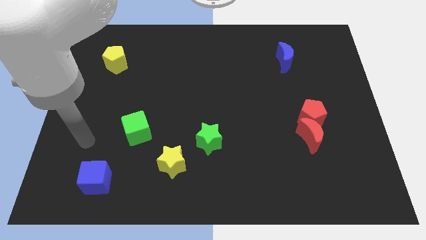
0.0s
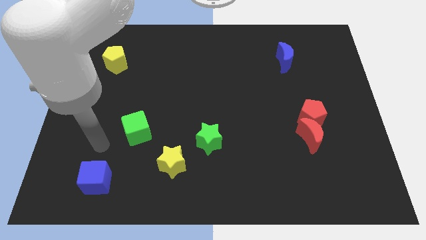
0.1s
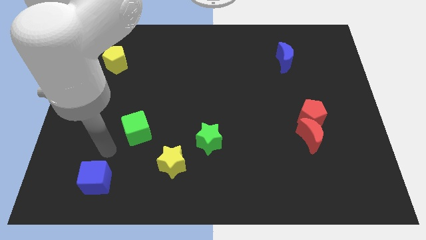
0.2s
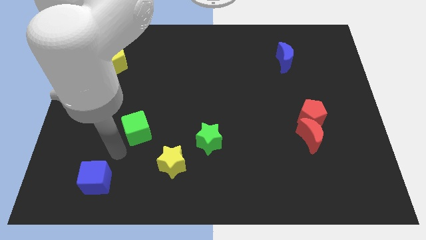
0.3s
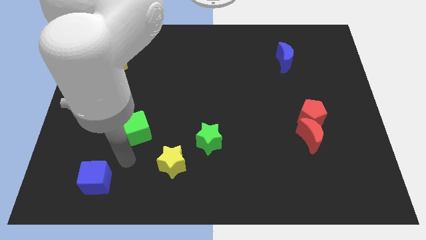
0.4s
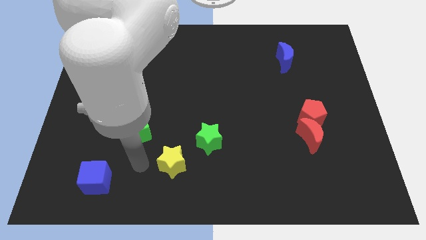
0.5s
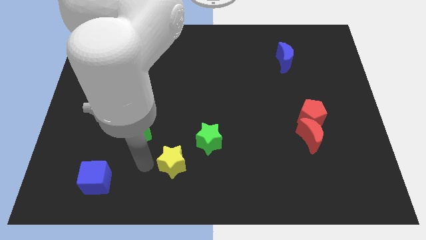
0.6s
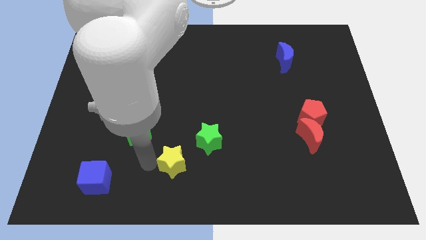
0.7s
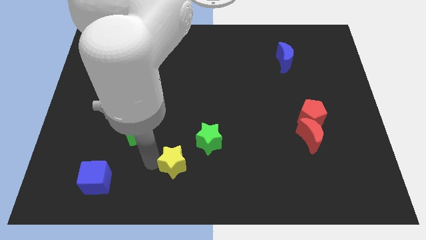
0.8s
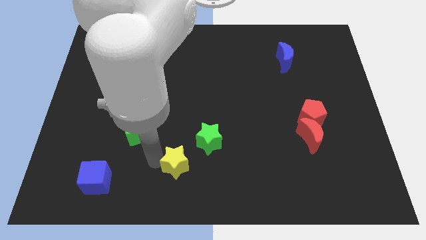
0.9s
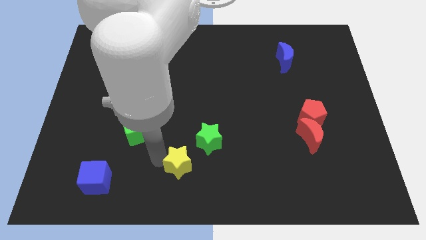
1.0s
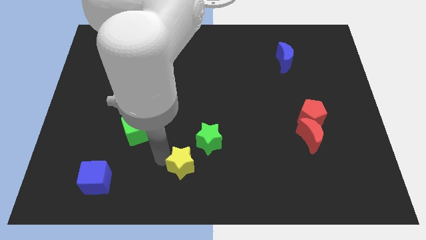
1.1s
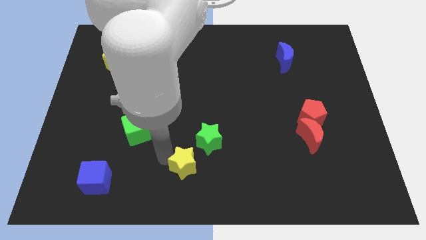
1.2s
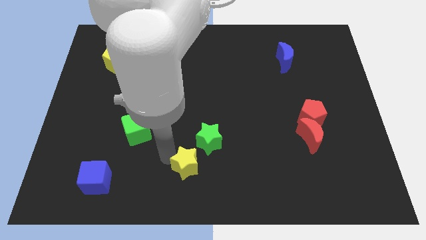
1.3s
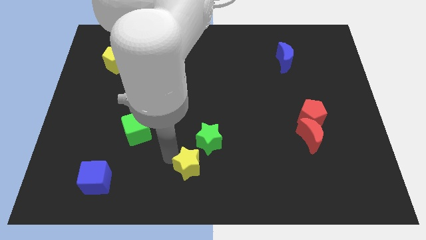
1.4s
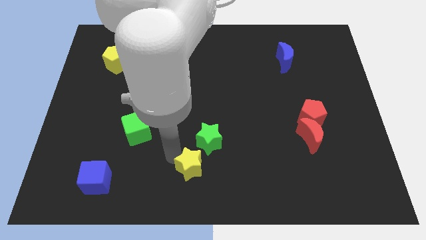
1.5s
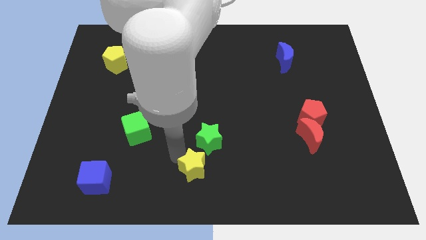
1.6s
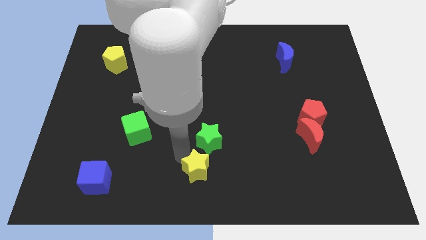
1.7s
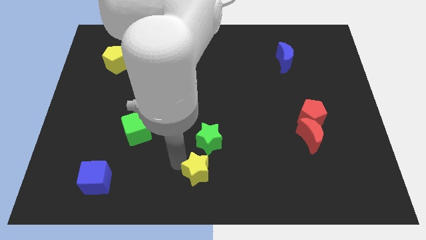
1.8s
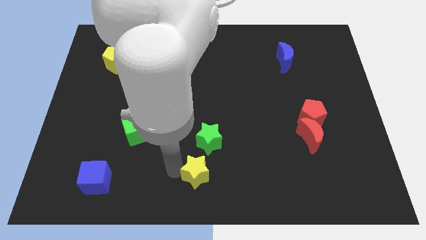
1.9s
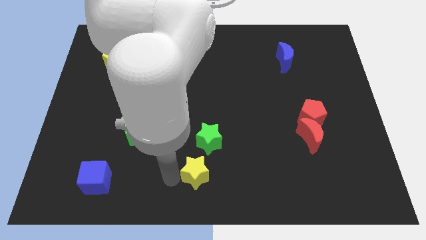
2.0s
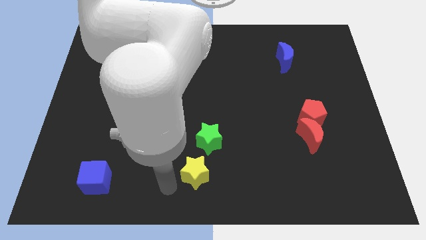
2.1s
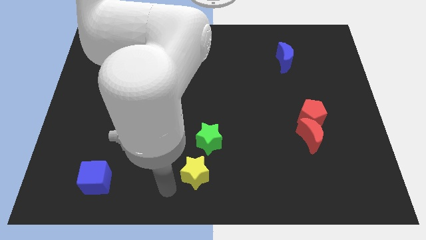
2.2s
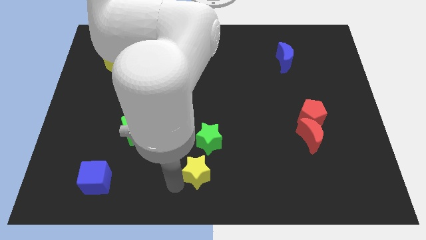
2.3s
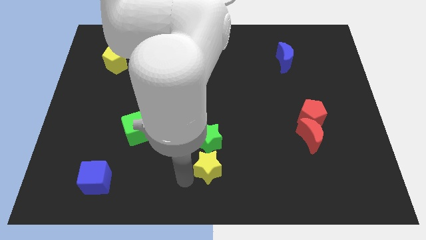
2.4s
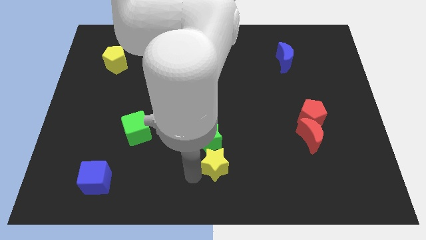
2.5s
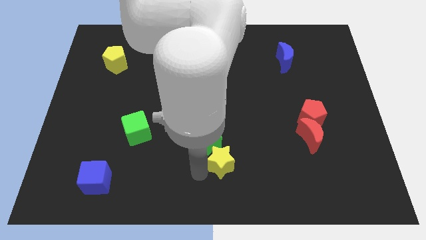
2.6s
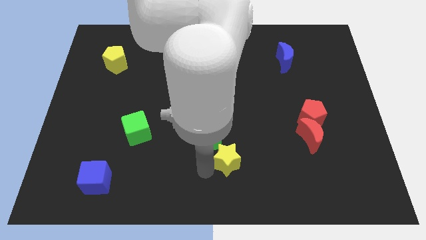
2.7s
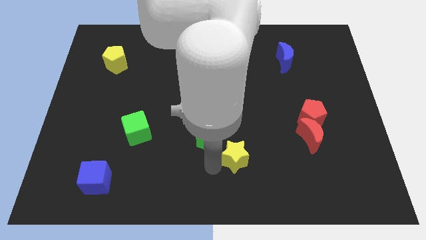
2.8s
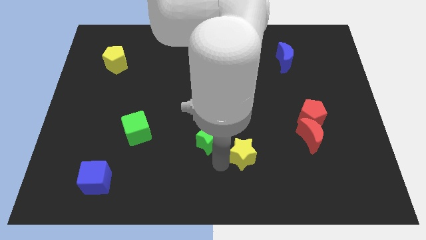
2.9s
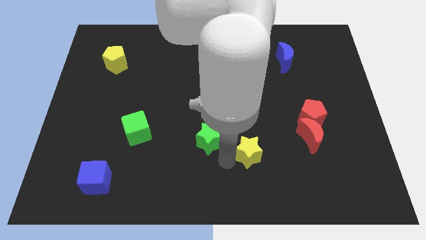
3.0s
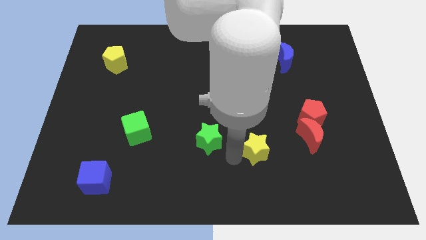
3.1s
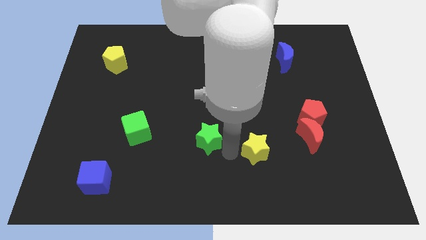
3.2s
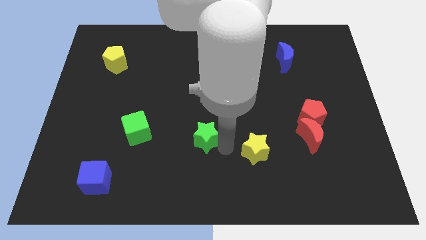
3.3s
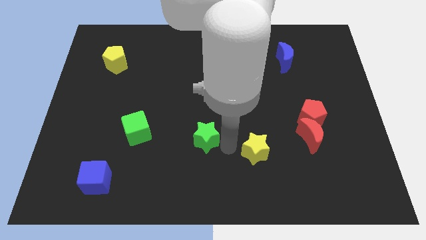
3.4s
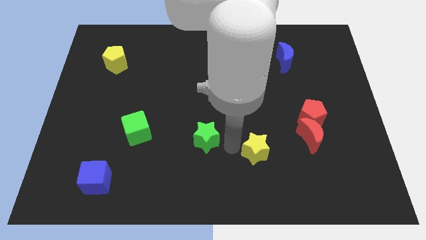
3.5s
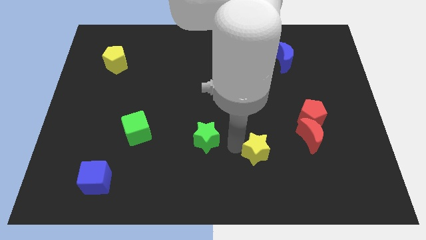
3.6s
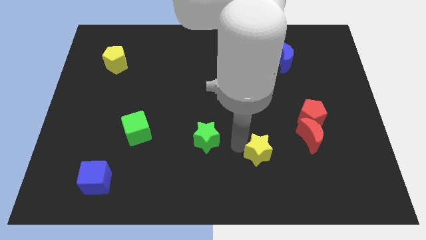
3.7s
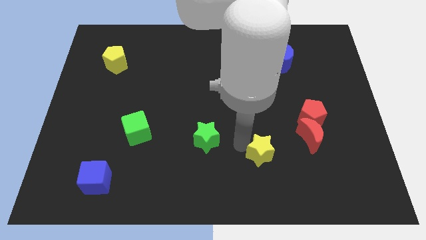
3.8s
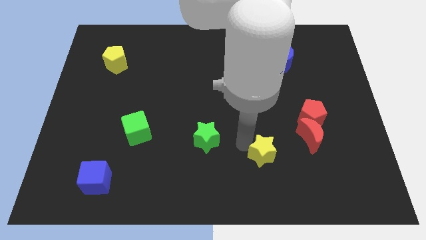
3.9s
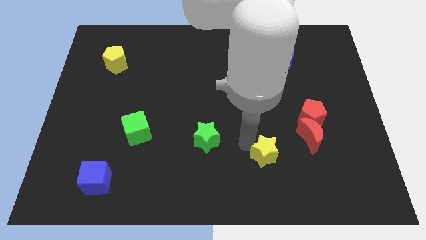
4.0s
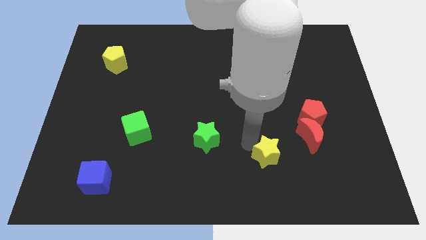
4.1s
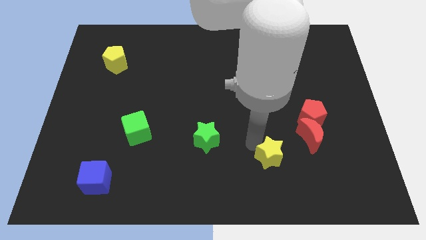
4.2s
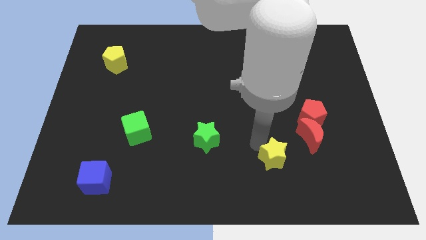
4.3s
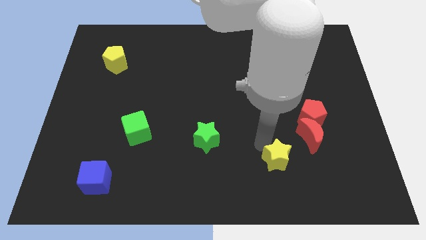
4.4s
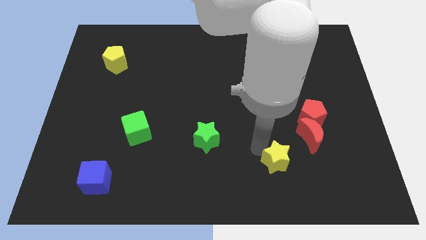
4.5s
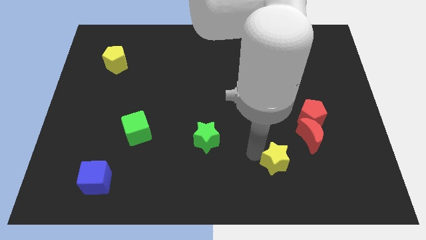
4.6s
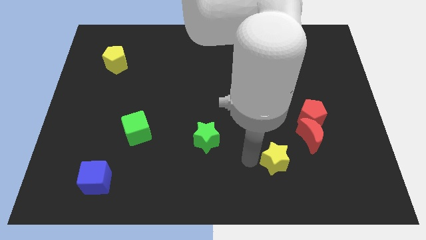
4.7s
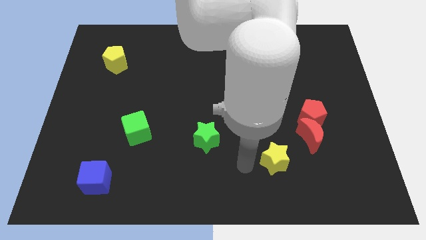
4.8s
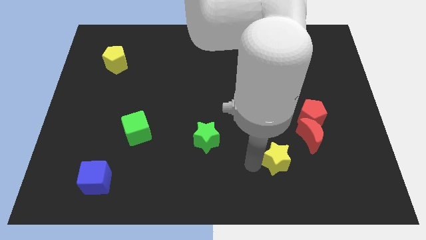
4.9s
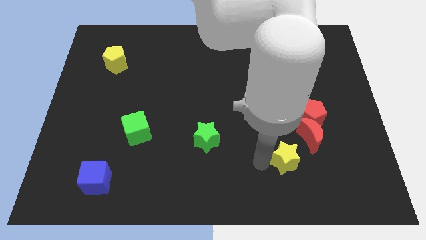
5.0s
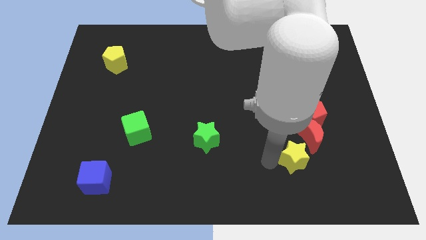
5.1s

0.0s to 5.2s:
move the yellow star diagonally down and to the left of the red pentagon

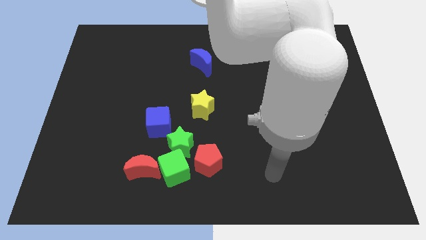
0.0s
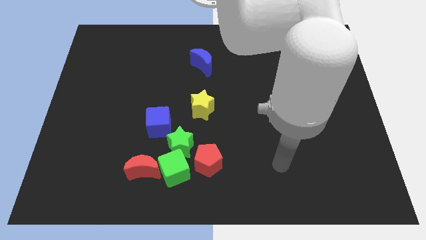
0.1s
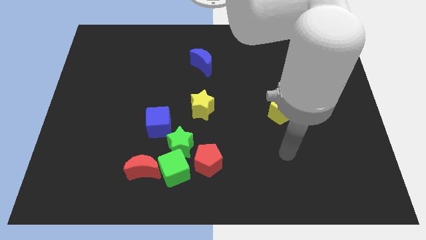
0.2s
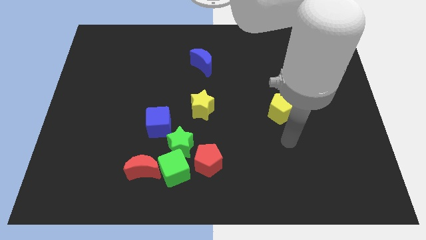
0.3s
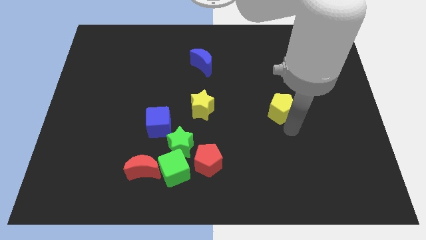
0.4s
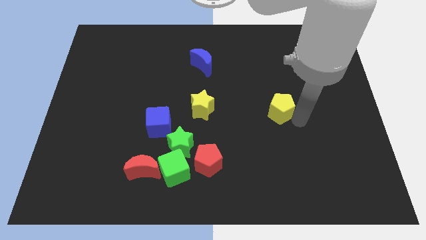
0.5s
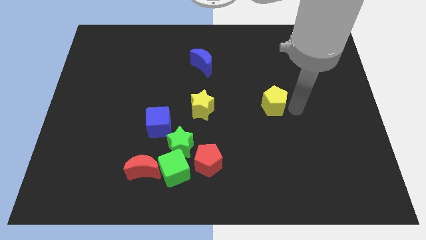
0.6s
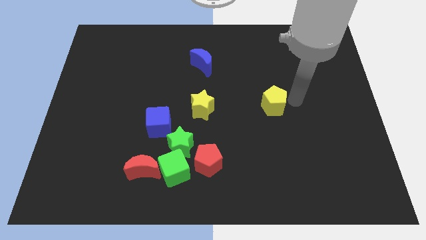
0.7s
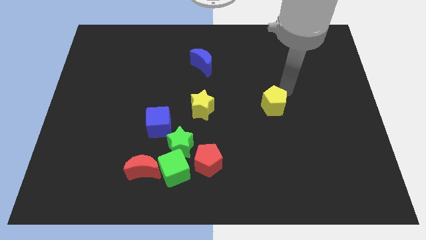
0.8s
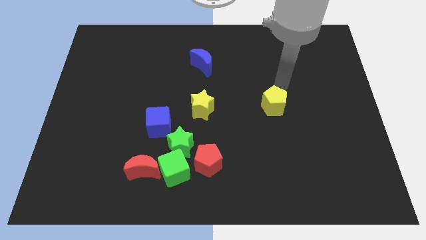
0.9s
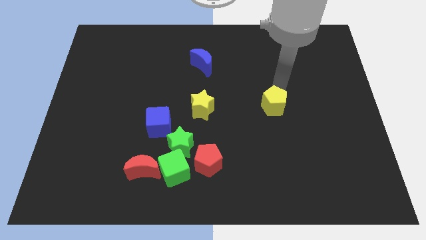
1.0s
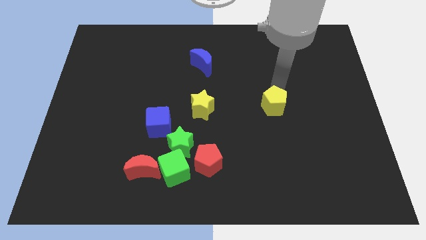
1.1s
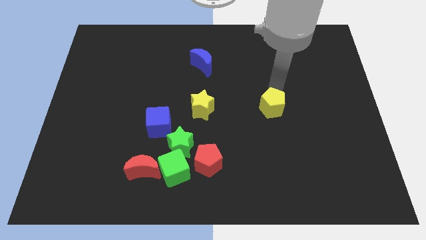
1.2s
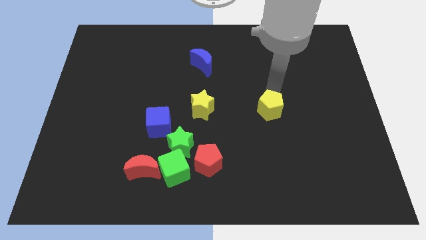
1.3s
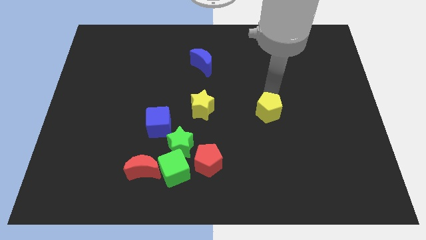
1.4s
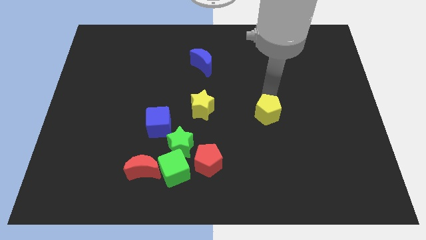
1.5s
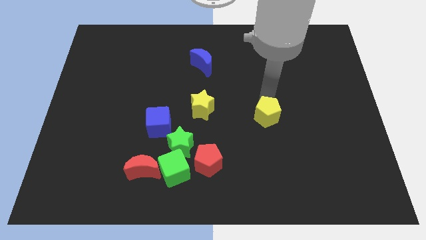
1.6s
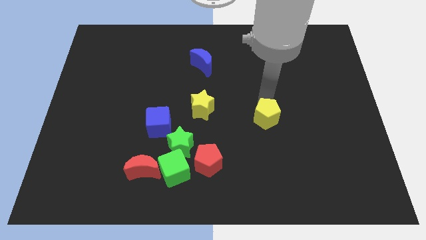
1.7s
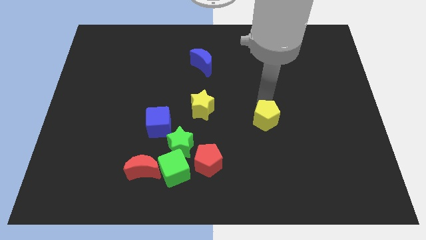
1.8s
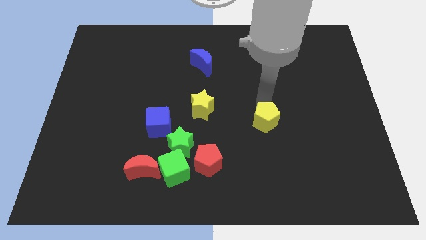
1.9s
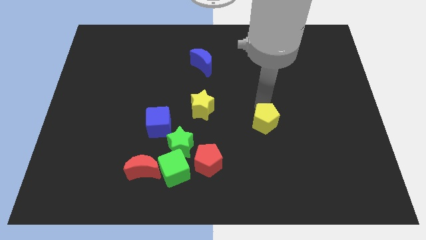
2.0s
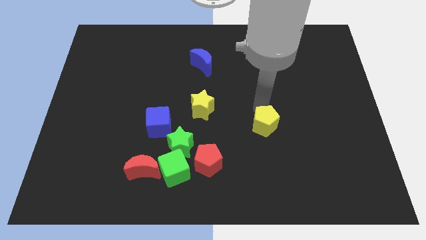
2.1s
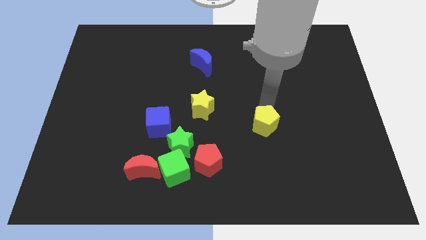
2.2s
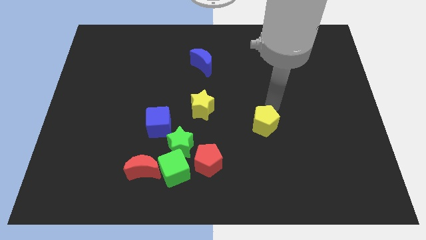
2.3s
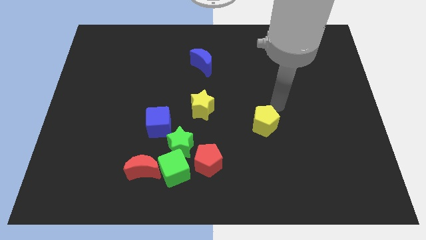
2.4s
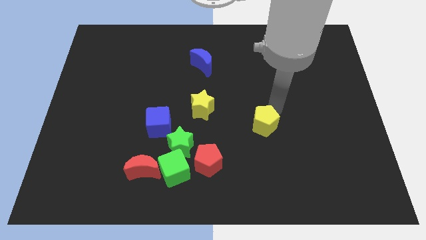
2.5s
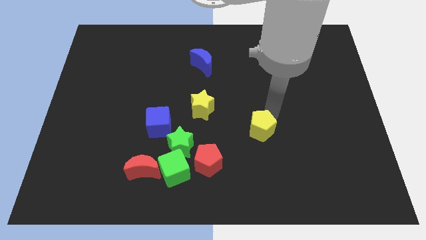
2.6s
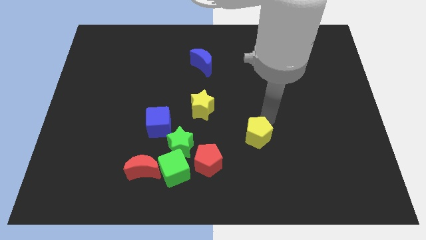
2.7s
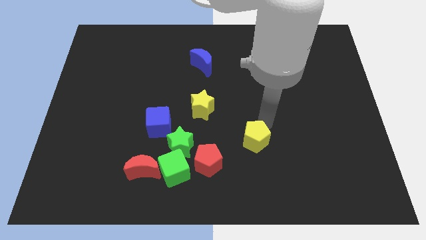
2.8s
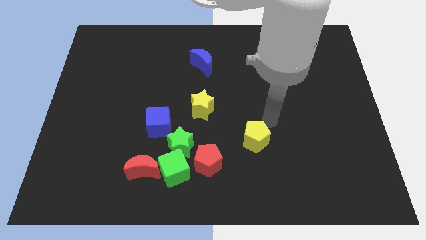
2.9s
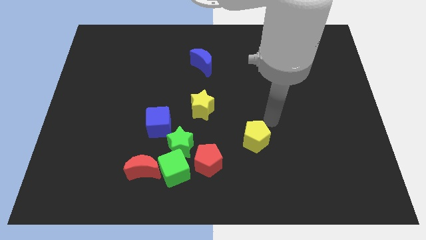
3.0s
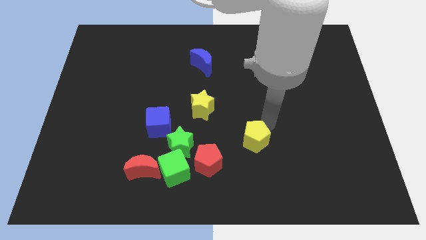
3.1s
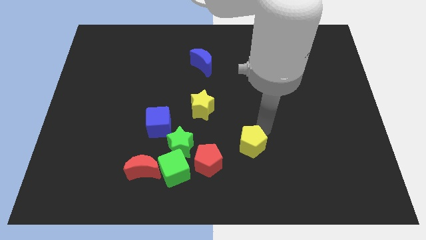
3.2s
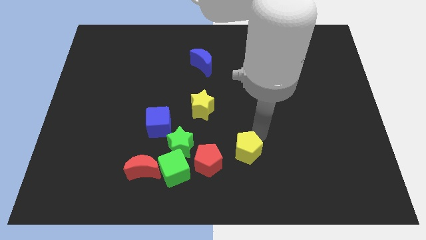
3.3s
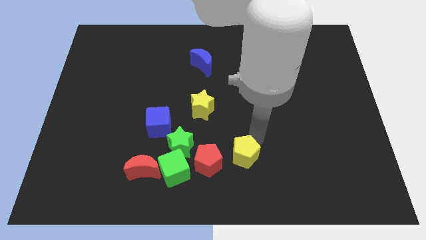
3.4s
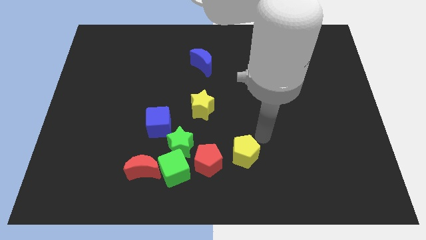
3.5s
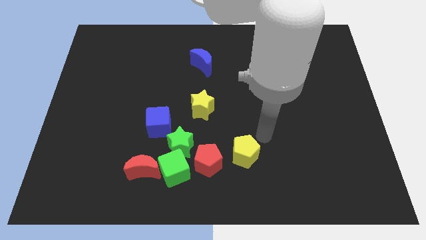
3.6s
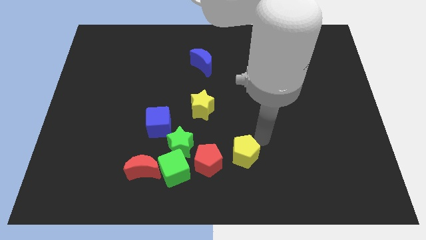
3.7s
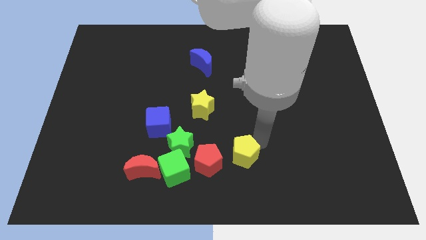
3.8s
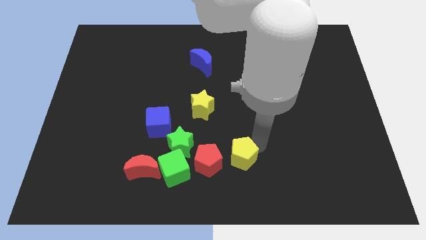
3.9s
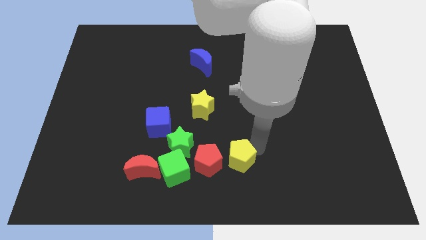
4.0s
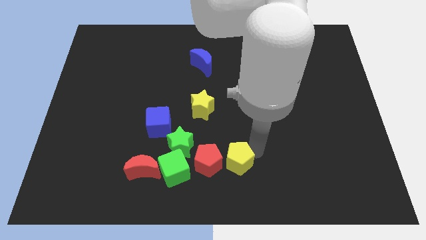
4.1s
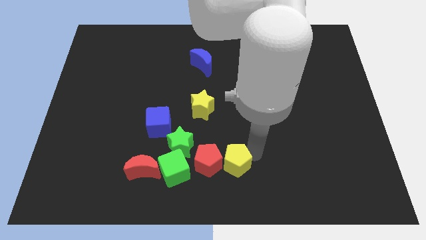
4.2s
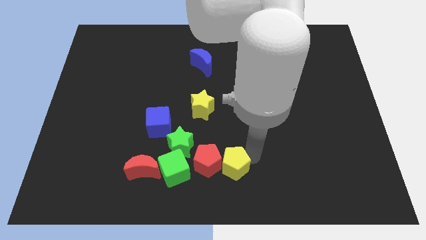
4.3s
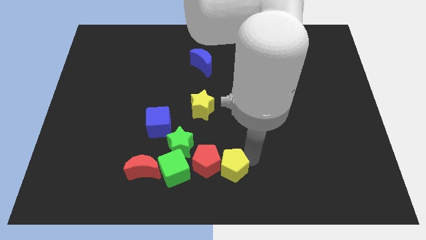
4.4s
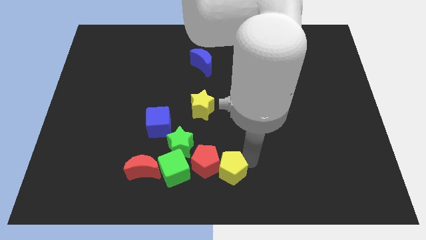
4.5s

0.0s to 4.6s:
push the yellow pentagon to the bottom right side of the green star
